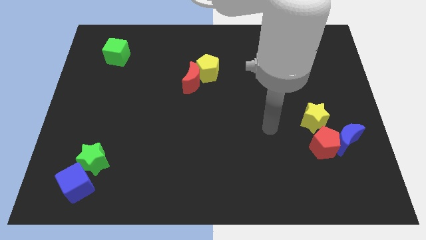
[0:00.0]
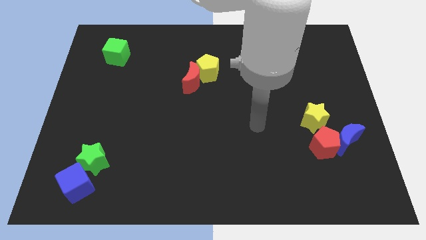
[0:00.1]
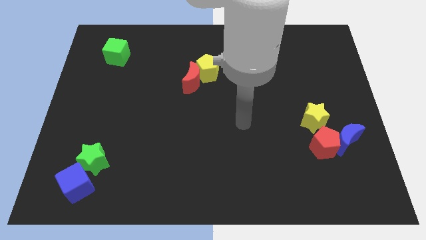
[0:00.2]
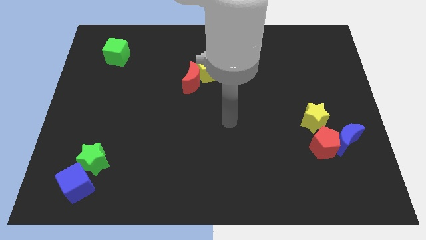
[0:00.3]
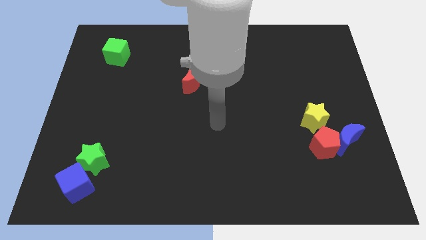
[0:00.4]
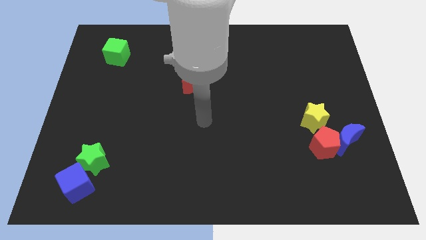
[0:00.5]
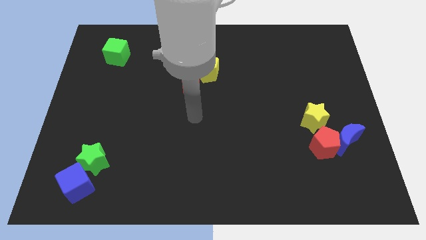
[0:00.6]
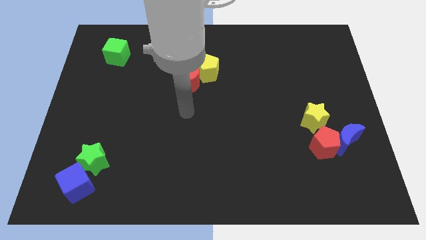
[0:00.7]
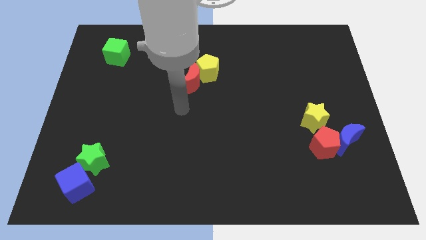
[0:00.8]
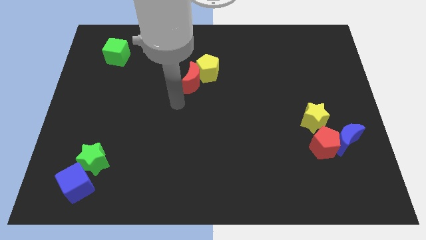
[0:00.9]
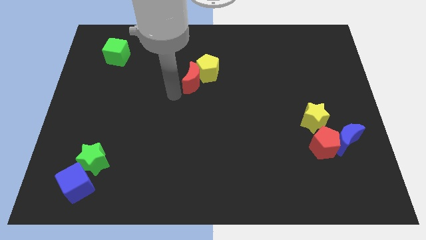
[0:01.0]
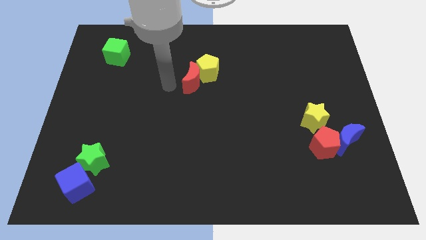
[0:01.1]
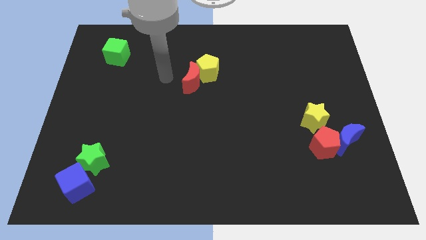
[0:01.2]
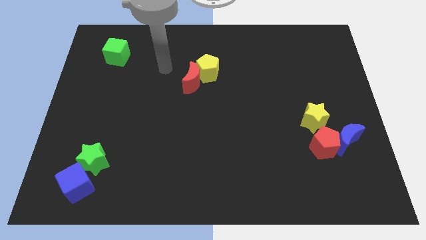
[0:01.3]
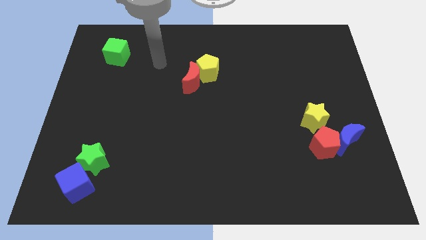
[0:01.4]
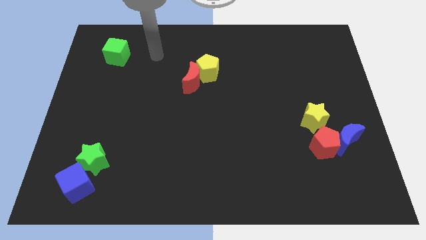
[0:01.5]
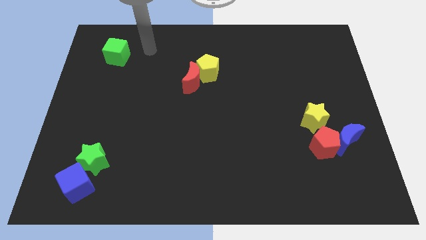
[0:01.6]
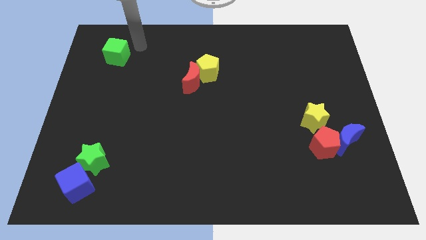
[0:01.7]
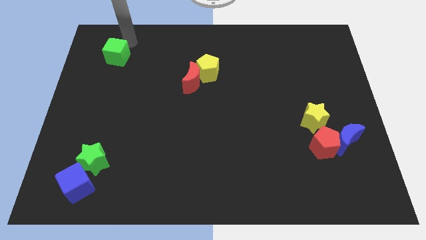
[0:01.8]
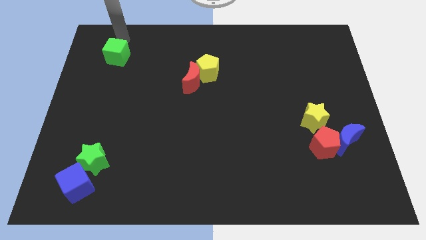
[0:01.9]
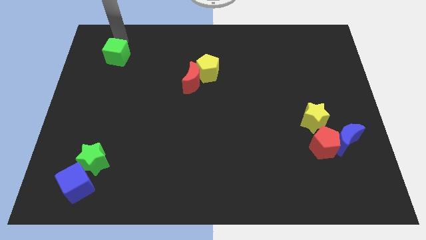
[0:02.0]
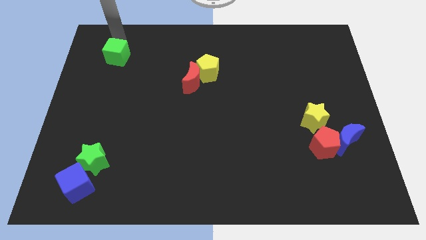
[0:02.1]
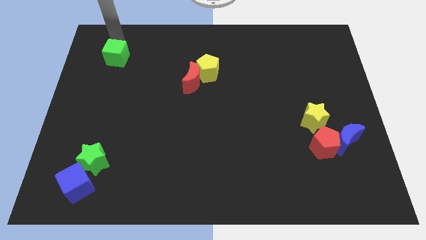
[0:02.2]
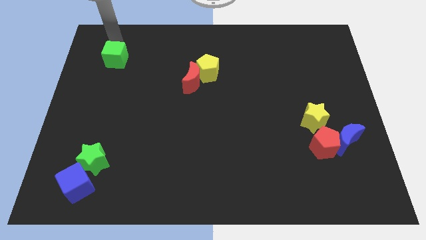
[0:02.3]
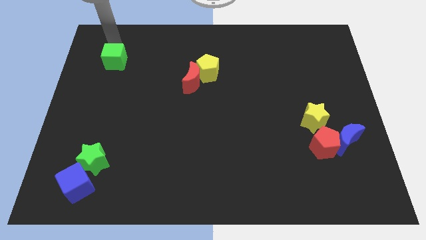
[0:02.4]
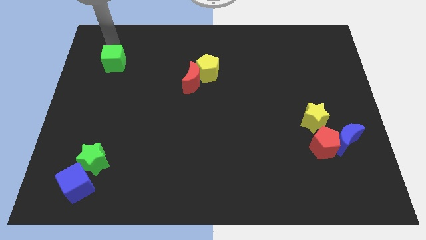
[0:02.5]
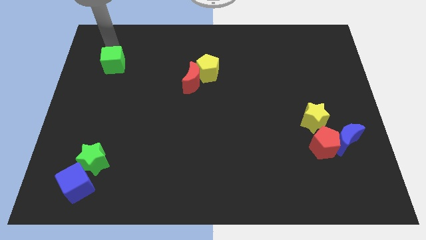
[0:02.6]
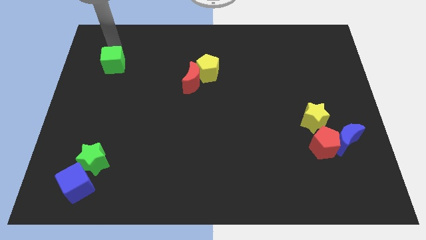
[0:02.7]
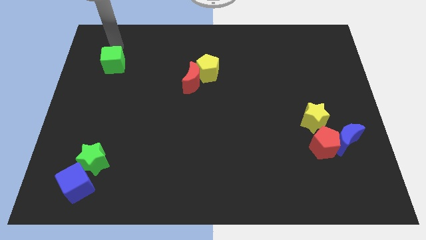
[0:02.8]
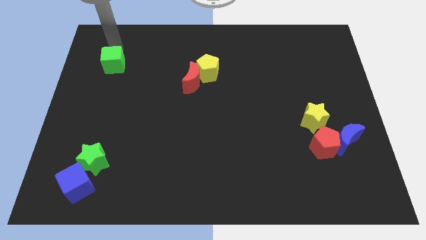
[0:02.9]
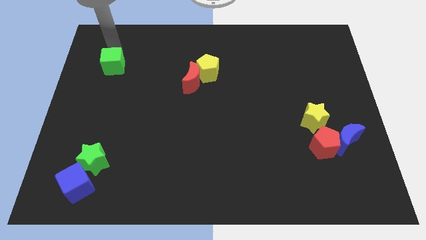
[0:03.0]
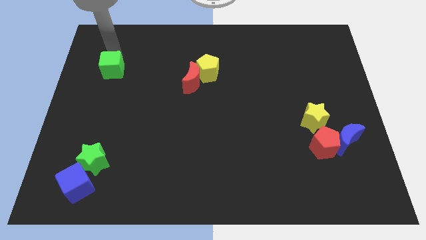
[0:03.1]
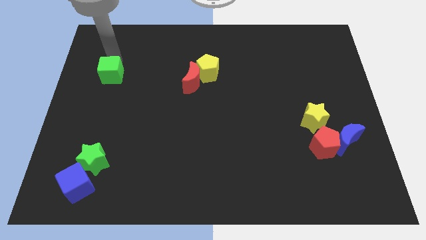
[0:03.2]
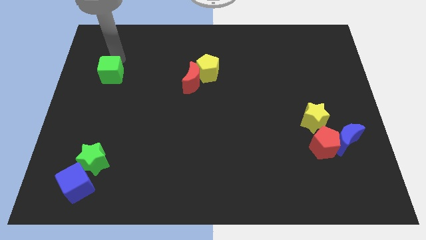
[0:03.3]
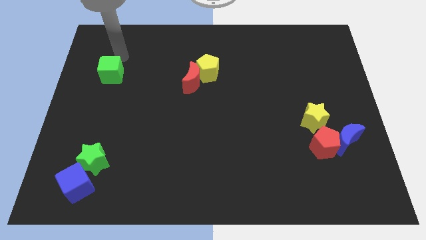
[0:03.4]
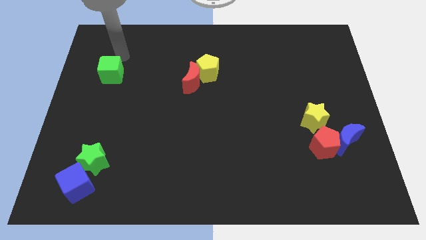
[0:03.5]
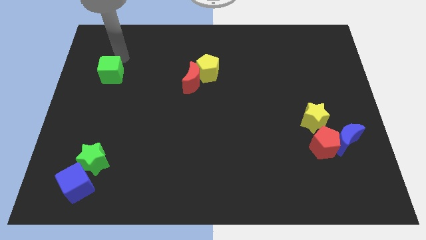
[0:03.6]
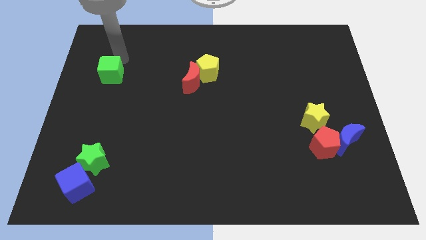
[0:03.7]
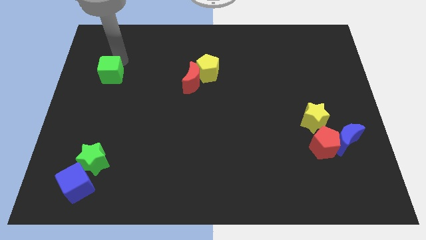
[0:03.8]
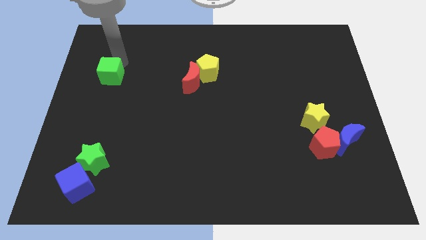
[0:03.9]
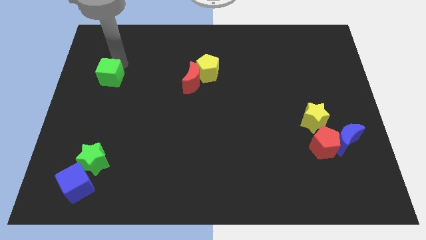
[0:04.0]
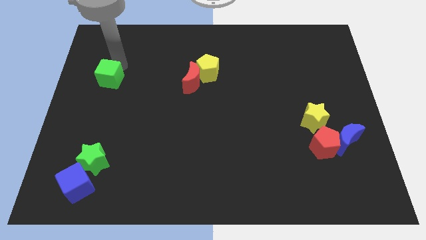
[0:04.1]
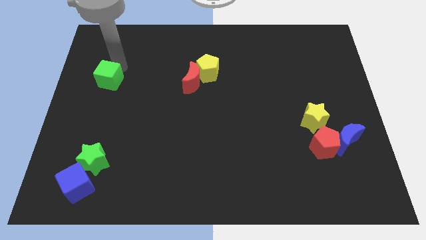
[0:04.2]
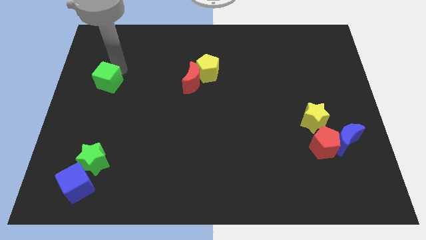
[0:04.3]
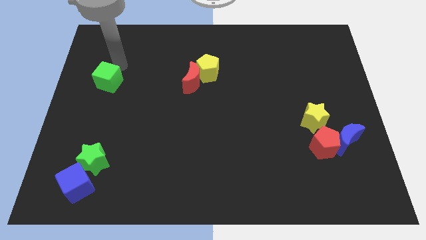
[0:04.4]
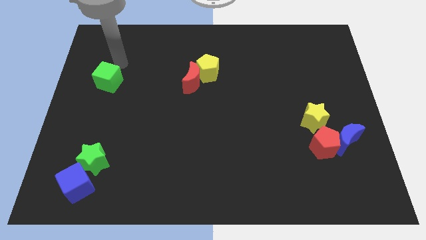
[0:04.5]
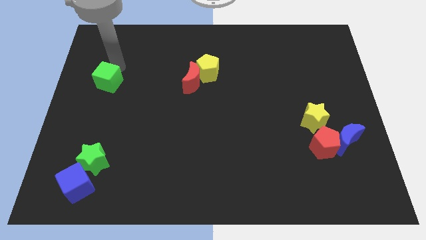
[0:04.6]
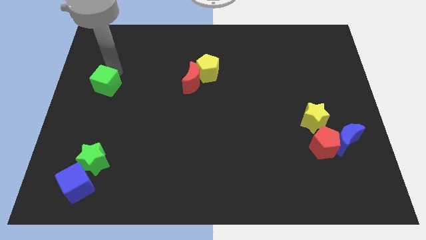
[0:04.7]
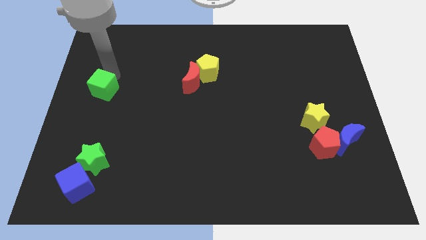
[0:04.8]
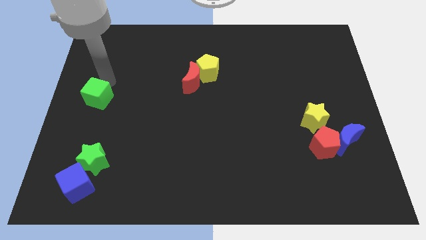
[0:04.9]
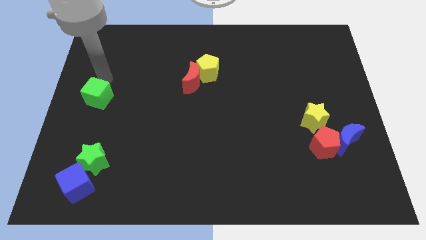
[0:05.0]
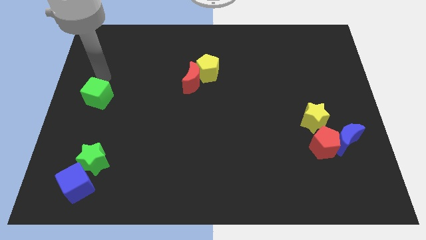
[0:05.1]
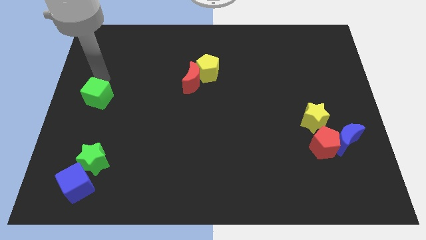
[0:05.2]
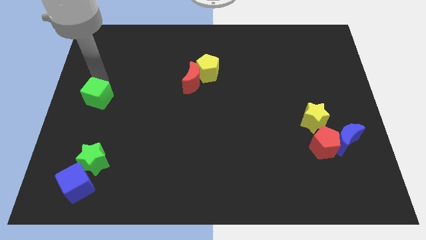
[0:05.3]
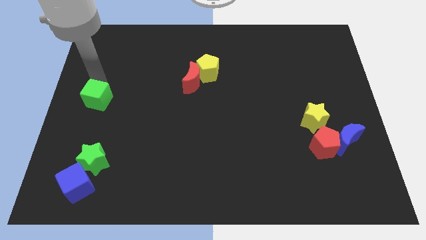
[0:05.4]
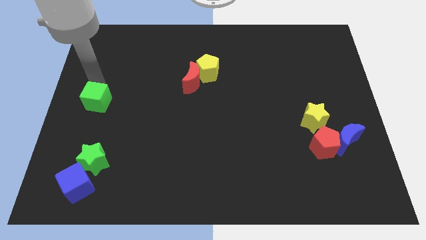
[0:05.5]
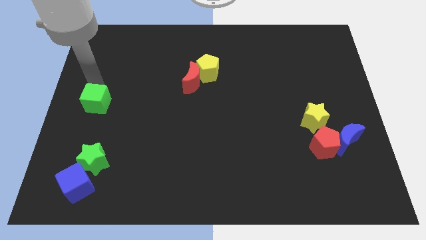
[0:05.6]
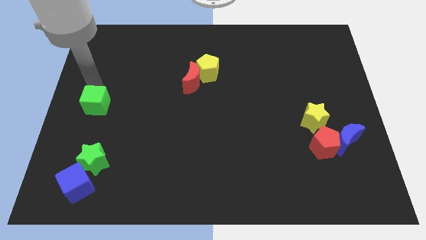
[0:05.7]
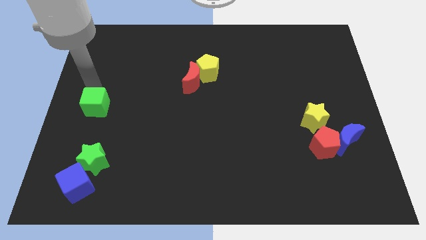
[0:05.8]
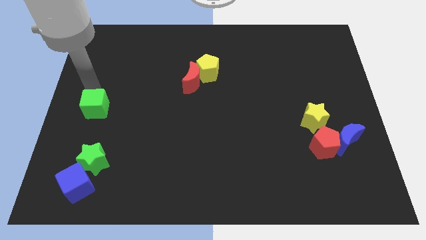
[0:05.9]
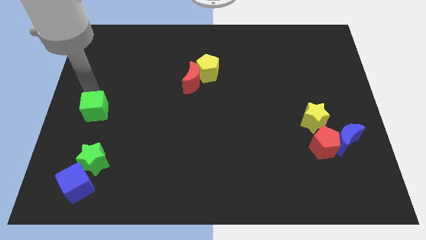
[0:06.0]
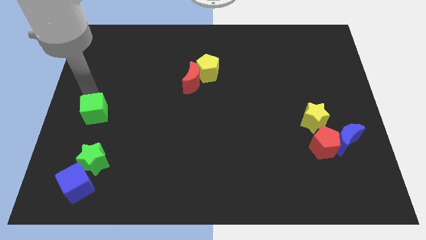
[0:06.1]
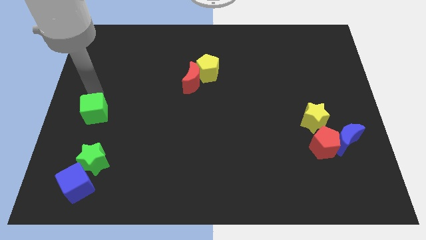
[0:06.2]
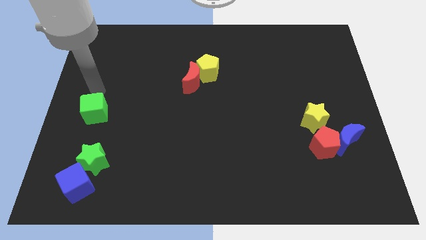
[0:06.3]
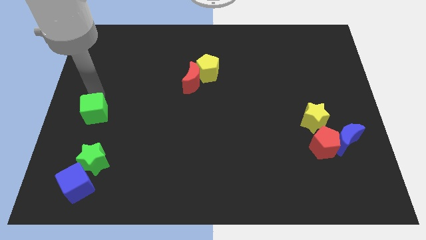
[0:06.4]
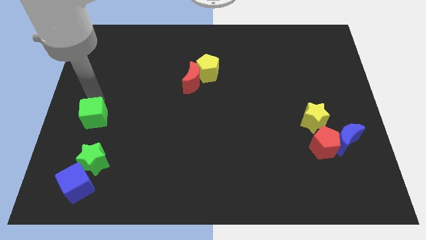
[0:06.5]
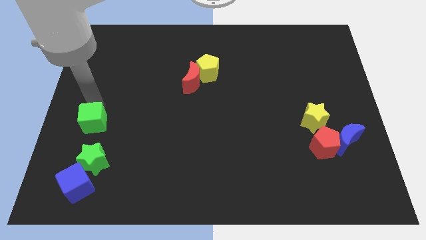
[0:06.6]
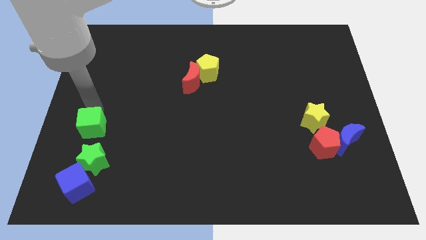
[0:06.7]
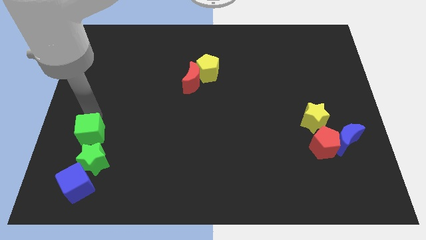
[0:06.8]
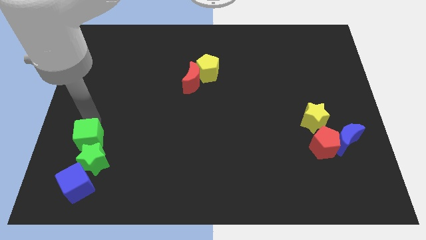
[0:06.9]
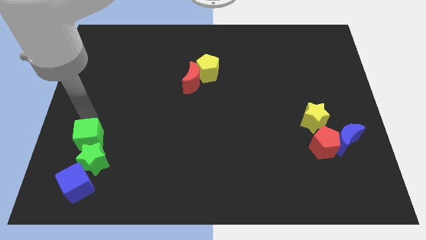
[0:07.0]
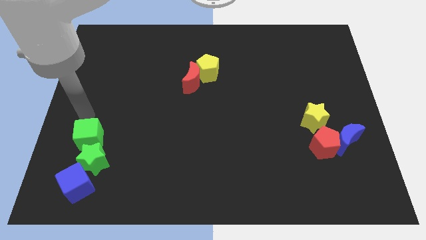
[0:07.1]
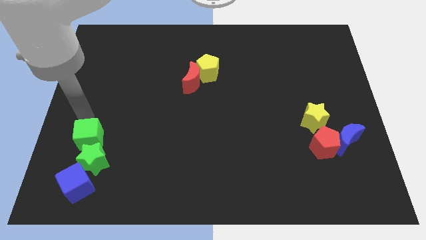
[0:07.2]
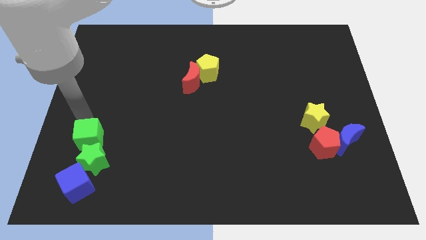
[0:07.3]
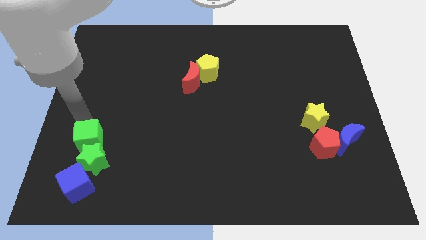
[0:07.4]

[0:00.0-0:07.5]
push the green cube towards the green star

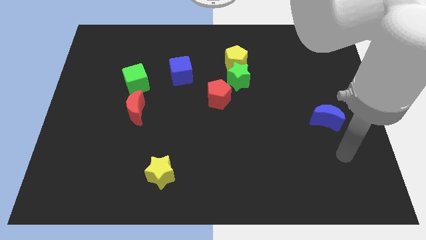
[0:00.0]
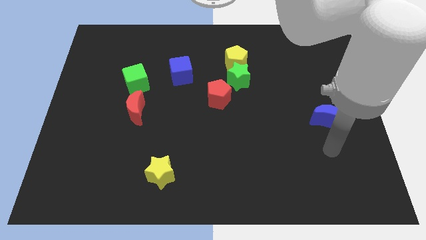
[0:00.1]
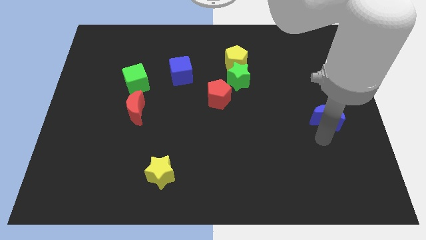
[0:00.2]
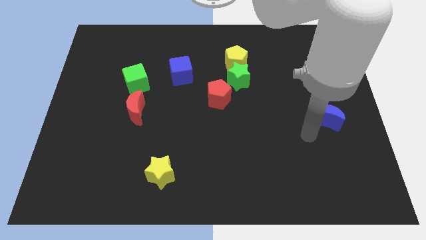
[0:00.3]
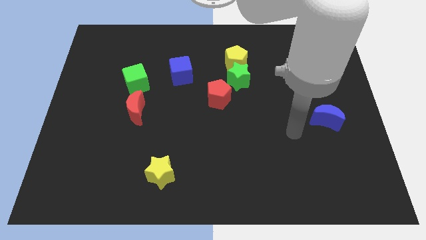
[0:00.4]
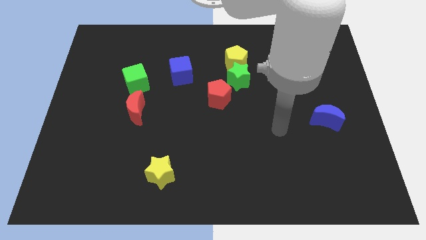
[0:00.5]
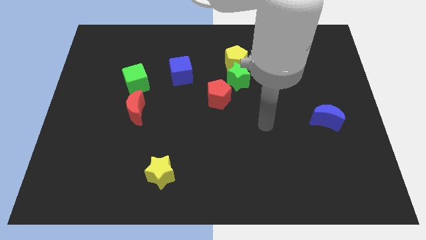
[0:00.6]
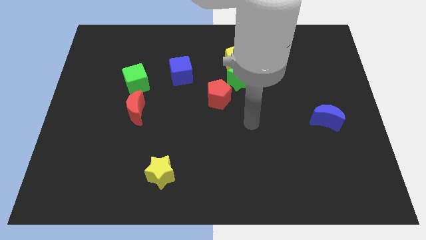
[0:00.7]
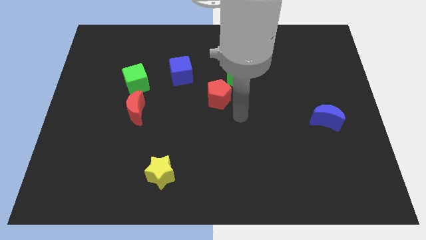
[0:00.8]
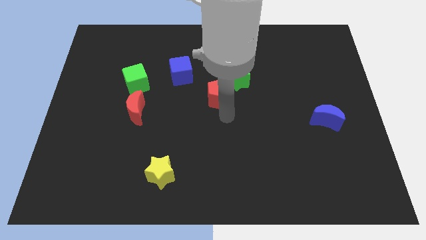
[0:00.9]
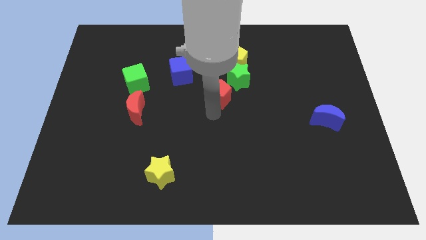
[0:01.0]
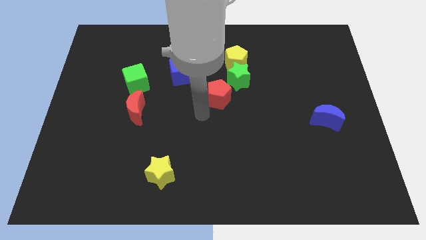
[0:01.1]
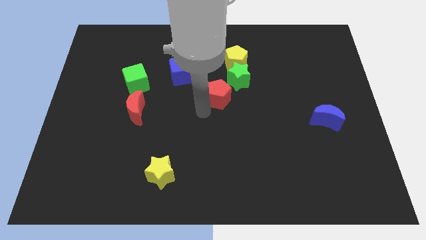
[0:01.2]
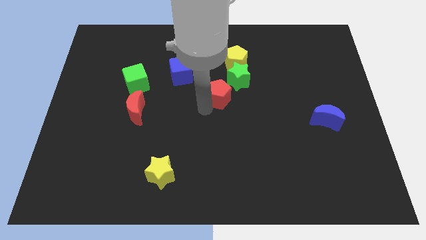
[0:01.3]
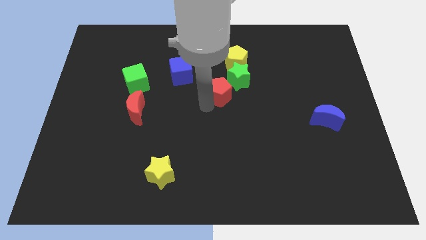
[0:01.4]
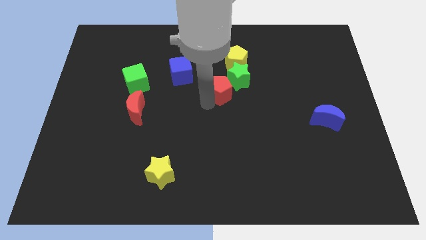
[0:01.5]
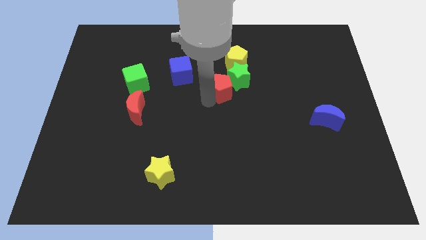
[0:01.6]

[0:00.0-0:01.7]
move the red pentagon to the green star
